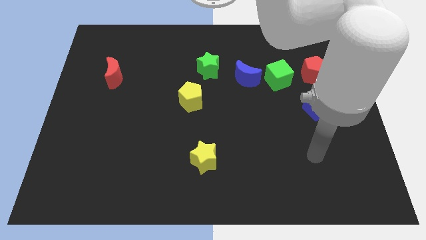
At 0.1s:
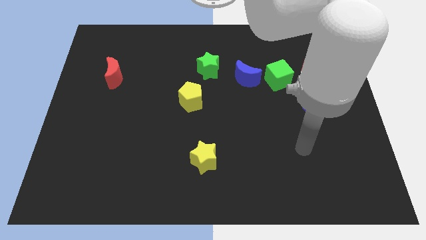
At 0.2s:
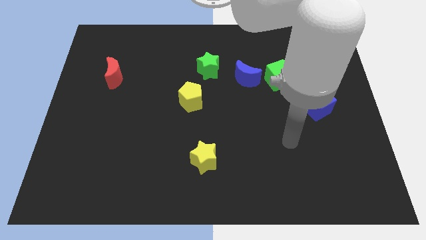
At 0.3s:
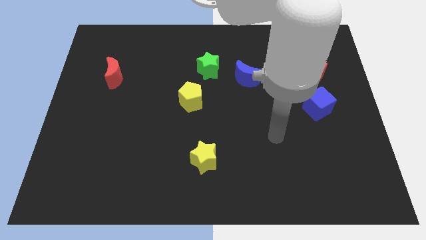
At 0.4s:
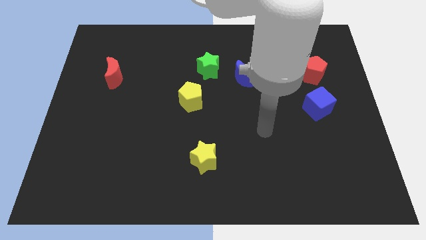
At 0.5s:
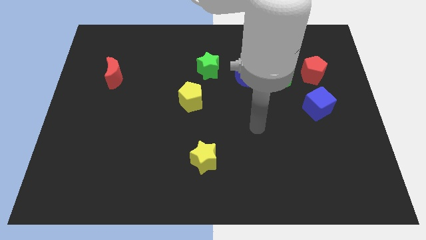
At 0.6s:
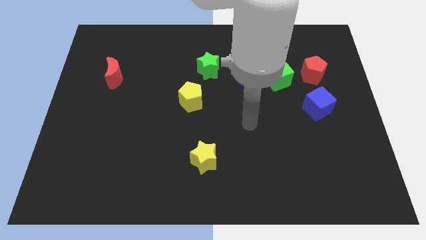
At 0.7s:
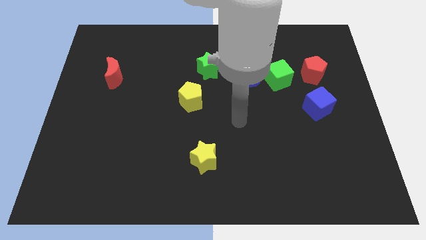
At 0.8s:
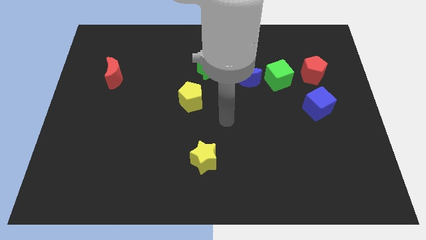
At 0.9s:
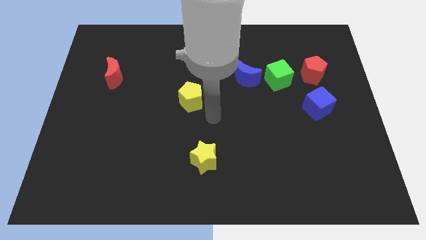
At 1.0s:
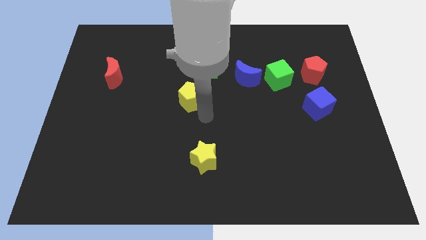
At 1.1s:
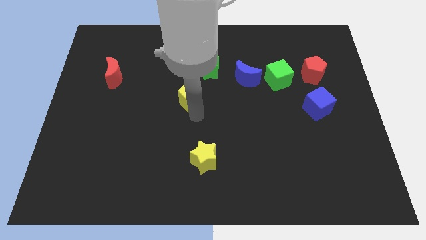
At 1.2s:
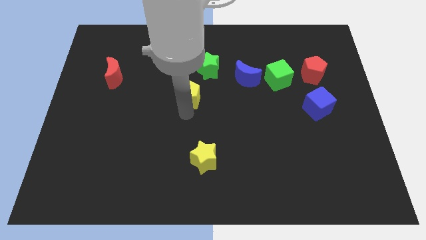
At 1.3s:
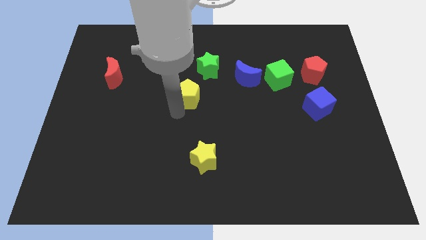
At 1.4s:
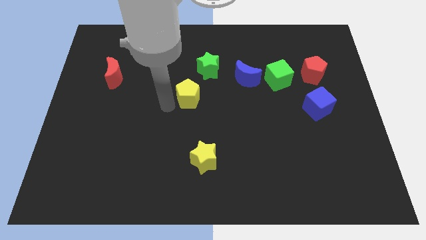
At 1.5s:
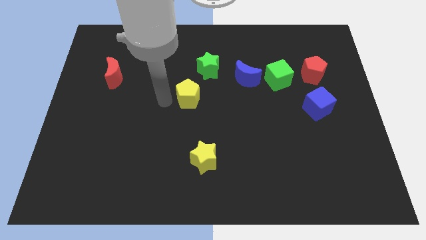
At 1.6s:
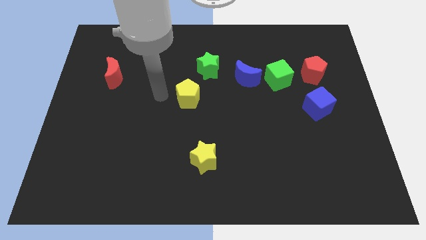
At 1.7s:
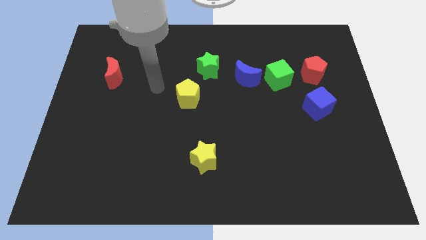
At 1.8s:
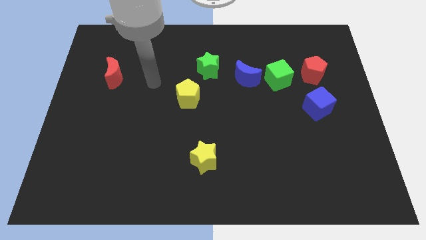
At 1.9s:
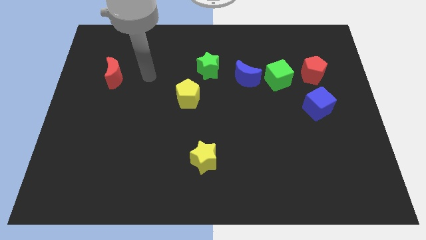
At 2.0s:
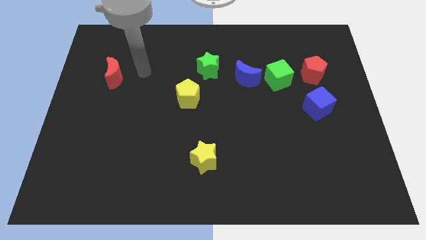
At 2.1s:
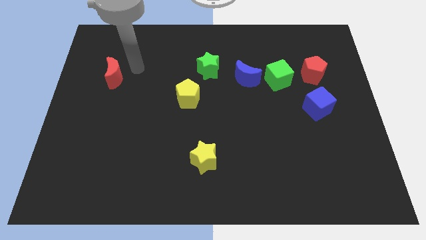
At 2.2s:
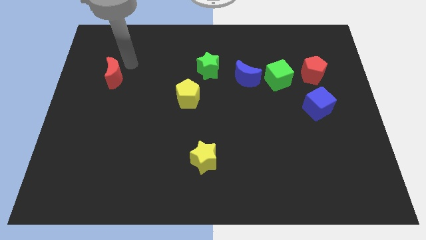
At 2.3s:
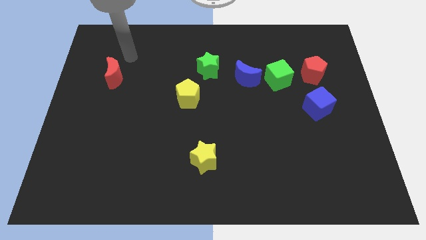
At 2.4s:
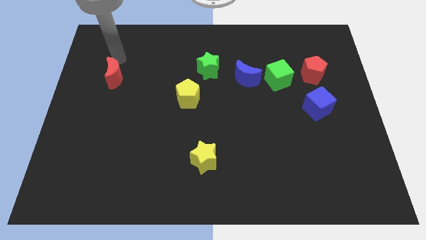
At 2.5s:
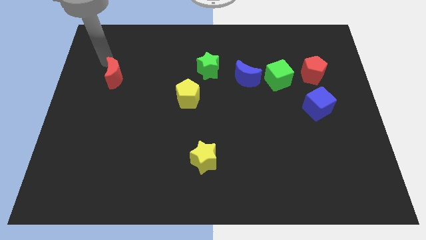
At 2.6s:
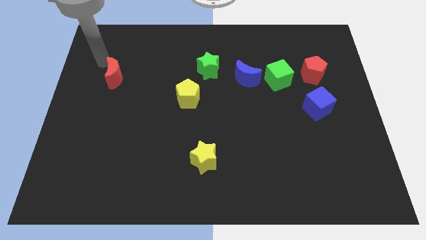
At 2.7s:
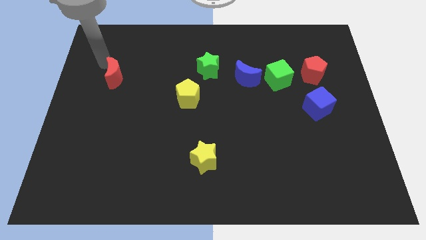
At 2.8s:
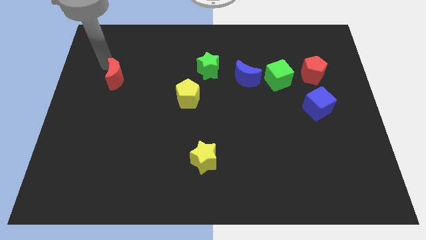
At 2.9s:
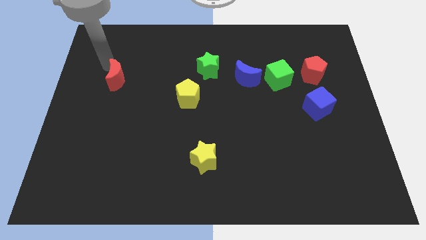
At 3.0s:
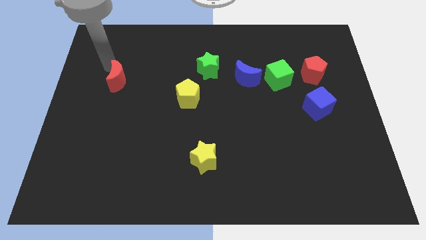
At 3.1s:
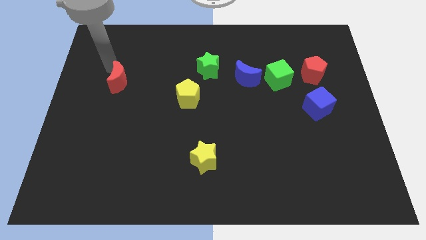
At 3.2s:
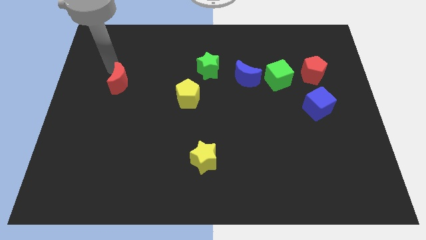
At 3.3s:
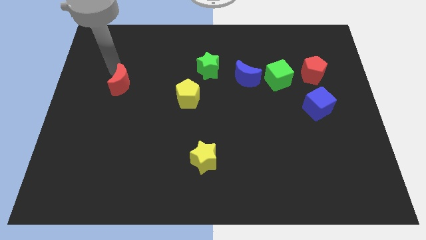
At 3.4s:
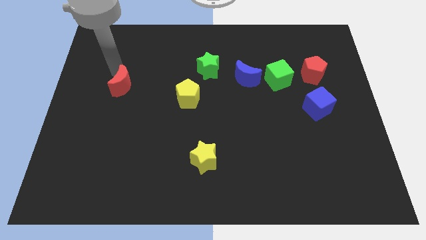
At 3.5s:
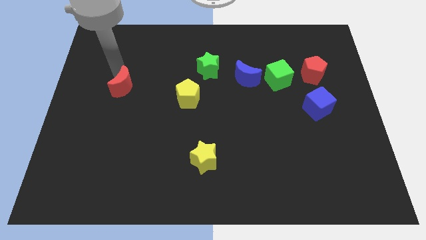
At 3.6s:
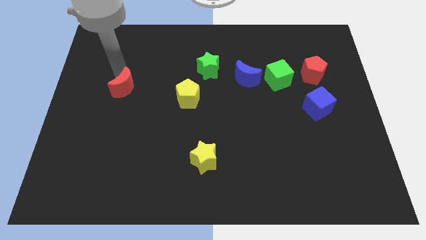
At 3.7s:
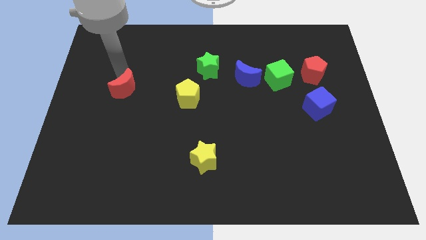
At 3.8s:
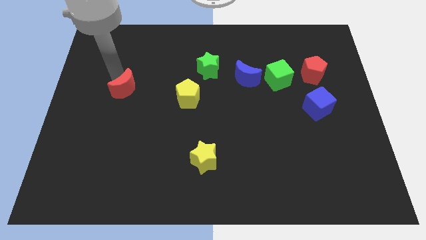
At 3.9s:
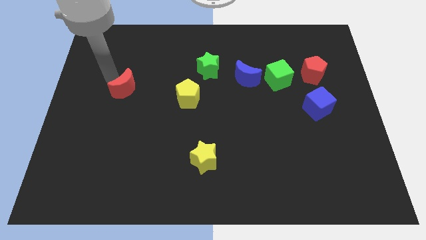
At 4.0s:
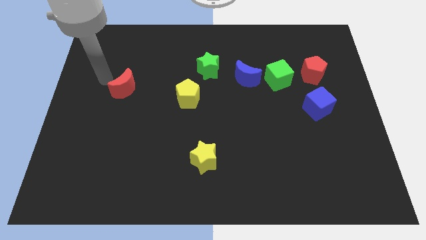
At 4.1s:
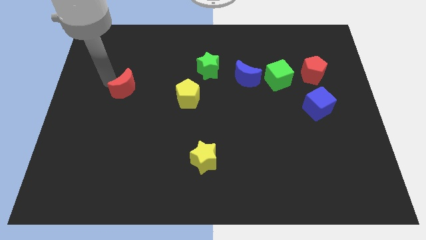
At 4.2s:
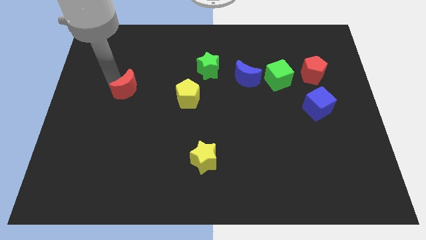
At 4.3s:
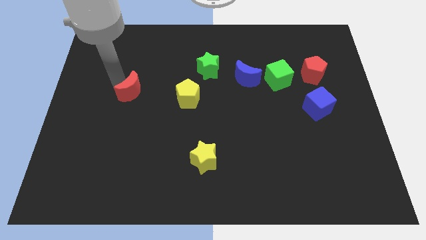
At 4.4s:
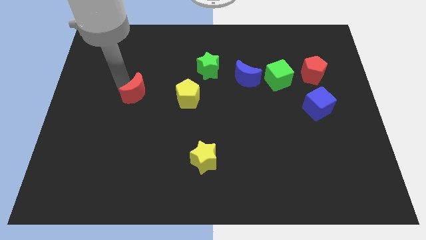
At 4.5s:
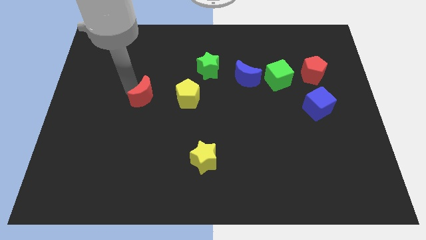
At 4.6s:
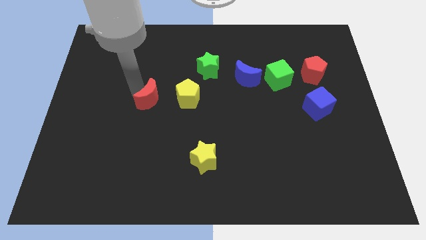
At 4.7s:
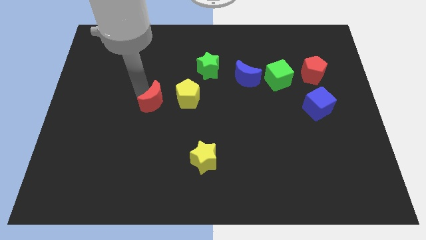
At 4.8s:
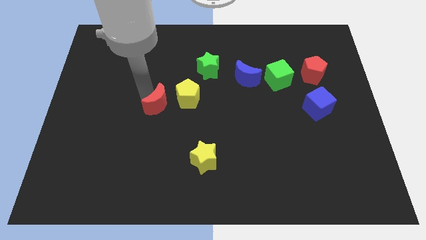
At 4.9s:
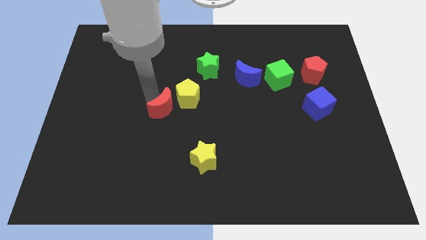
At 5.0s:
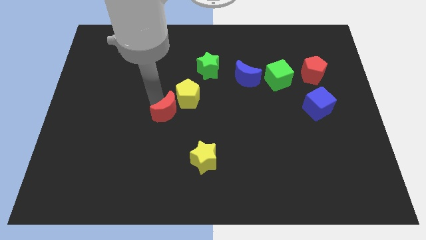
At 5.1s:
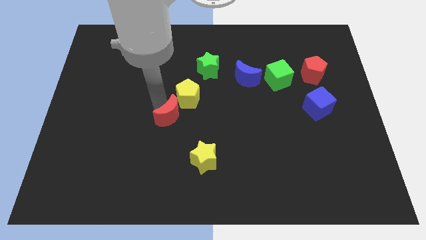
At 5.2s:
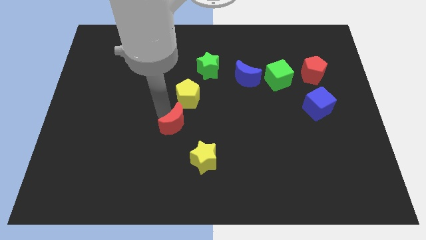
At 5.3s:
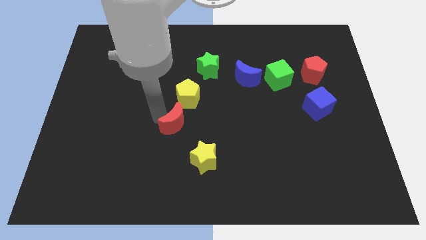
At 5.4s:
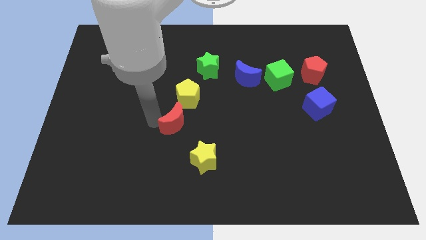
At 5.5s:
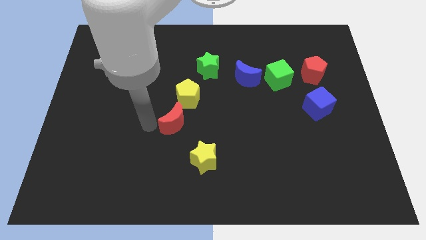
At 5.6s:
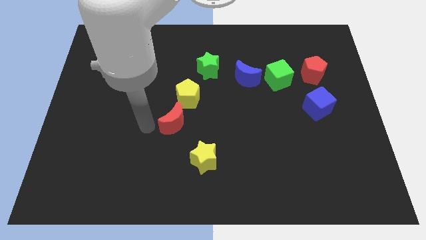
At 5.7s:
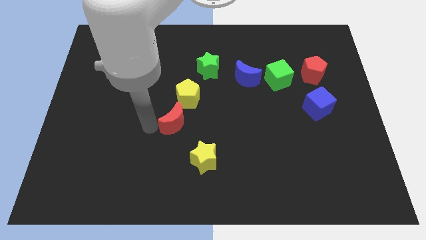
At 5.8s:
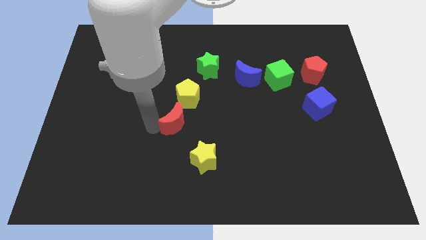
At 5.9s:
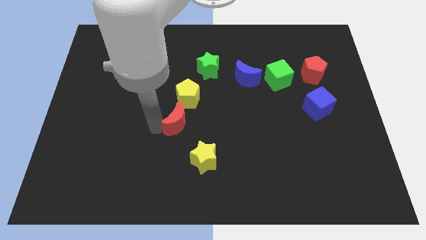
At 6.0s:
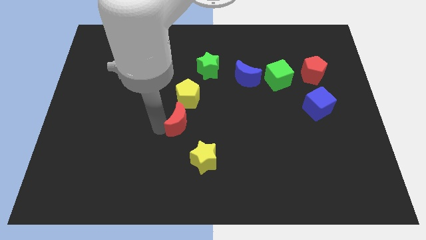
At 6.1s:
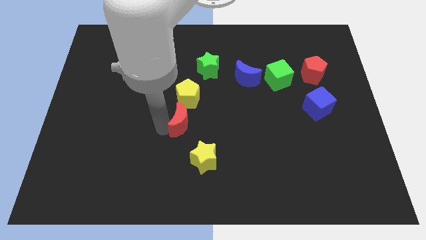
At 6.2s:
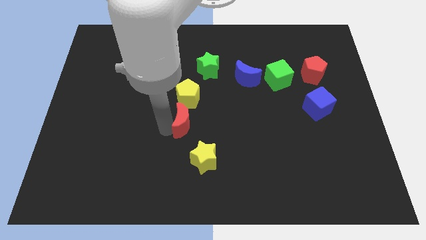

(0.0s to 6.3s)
move the red moon to the top of the yellow star

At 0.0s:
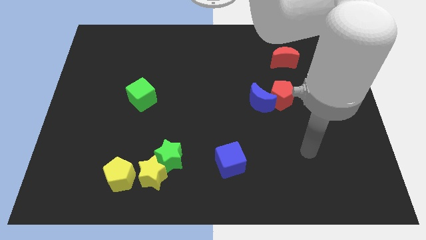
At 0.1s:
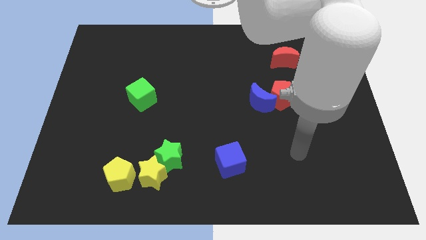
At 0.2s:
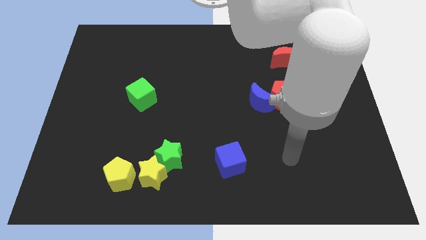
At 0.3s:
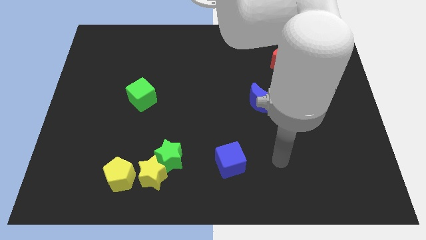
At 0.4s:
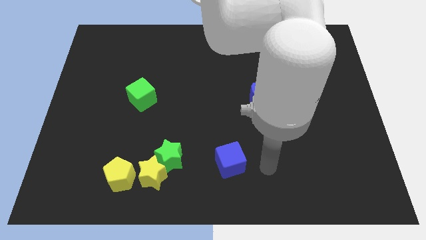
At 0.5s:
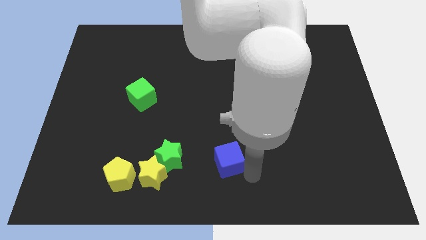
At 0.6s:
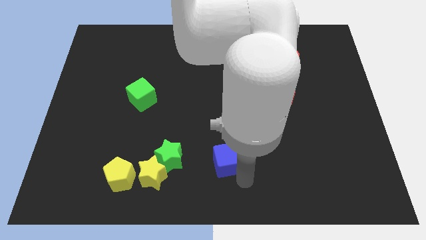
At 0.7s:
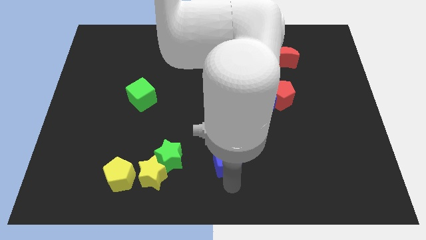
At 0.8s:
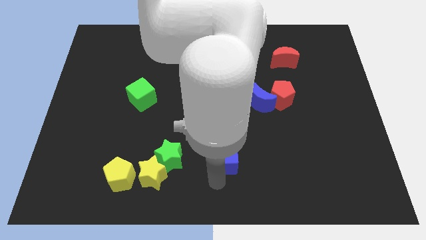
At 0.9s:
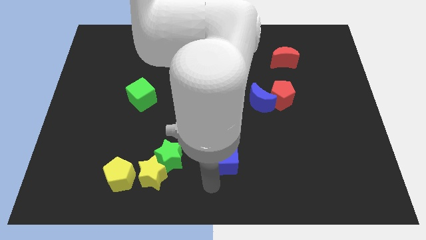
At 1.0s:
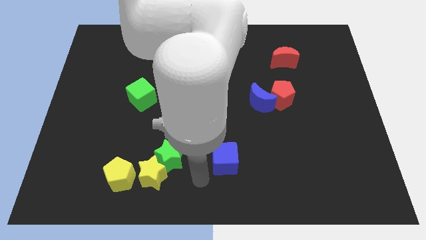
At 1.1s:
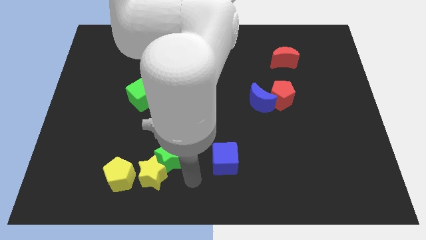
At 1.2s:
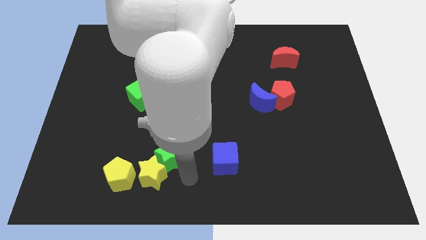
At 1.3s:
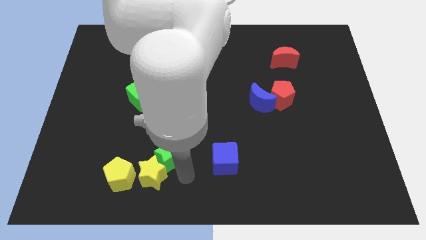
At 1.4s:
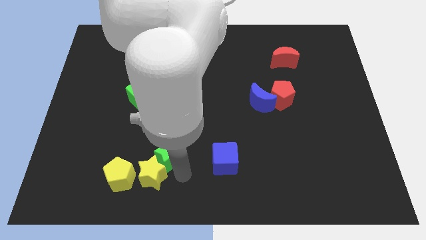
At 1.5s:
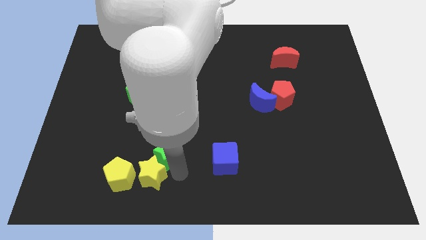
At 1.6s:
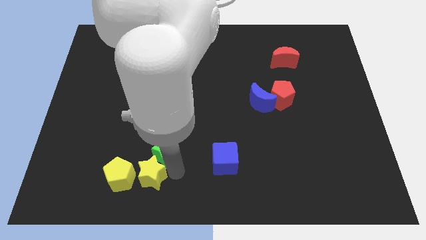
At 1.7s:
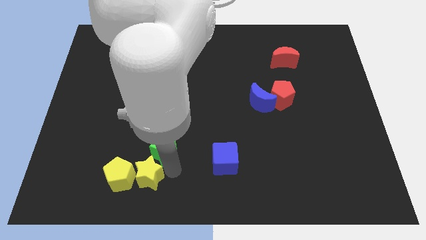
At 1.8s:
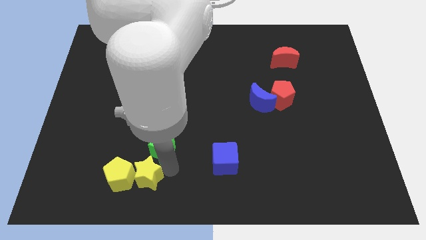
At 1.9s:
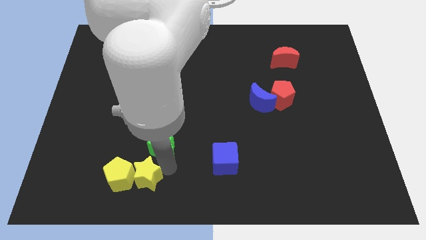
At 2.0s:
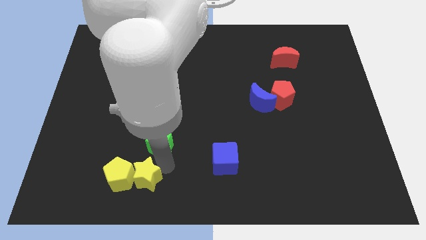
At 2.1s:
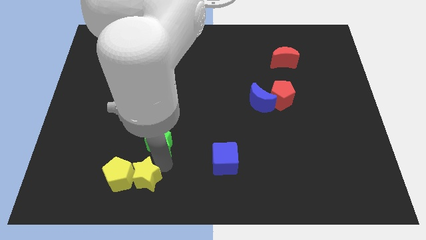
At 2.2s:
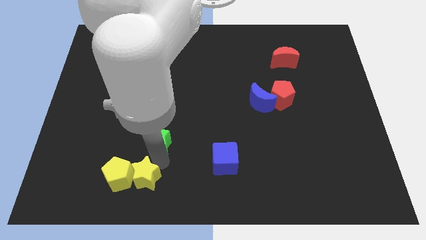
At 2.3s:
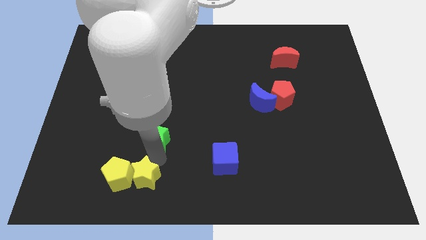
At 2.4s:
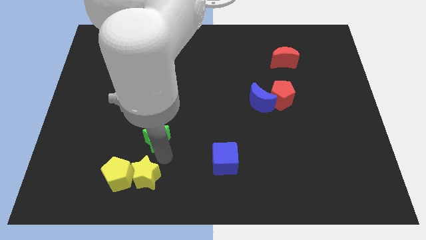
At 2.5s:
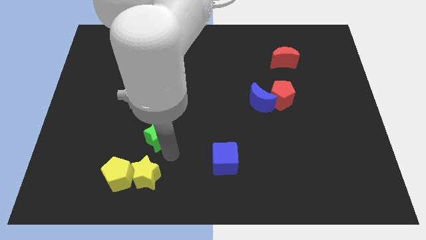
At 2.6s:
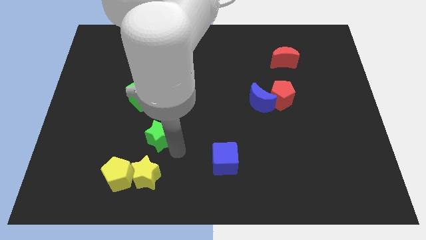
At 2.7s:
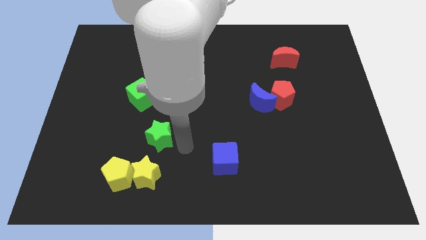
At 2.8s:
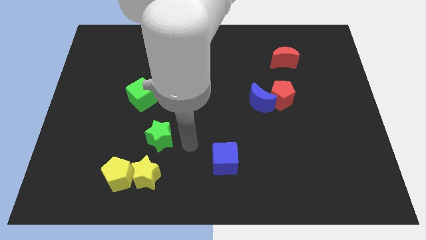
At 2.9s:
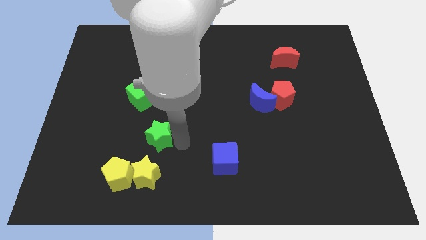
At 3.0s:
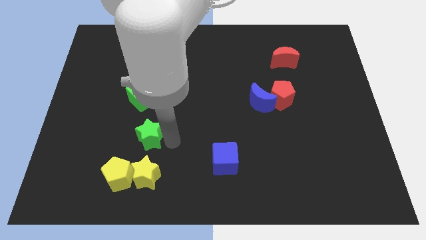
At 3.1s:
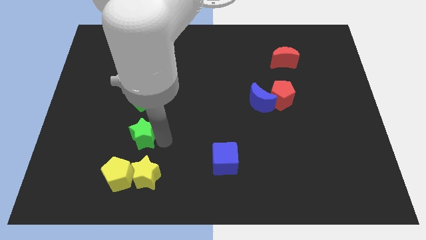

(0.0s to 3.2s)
put the green star above the yellow pentagon
